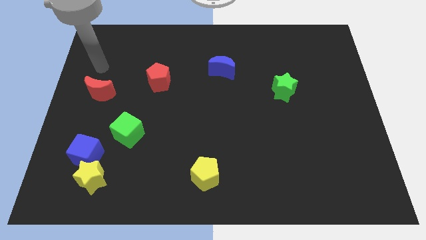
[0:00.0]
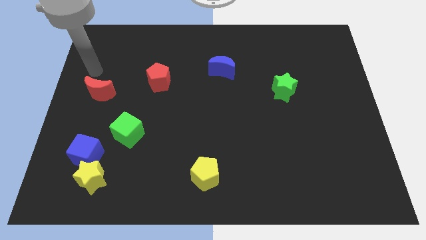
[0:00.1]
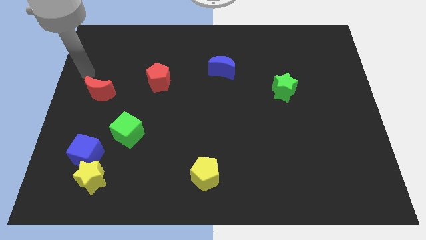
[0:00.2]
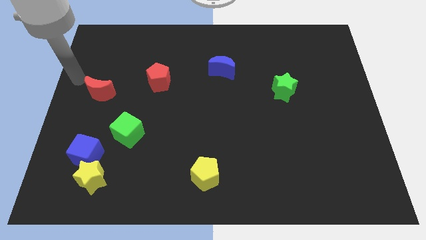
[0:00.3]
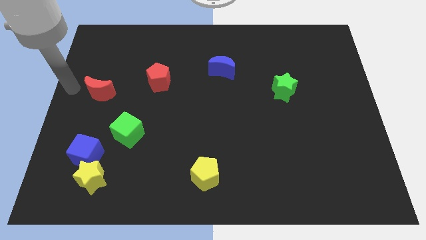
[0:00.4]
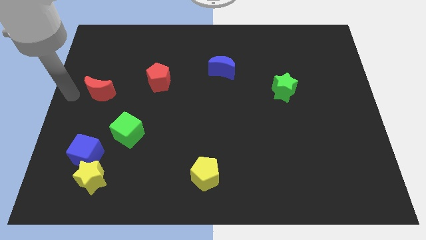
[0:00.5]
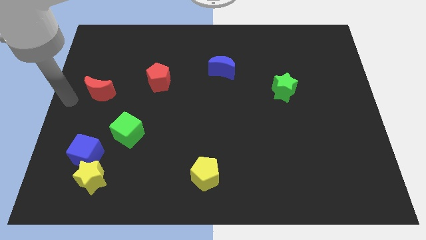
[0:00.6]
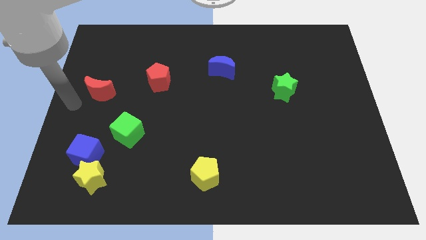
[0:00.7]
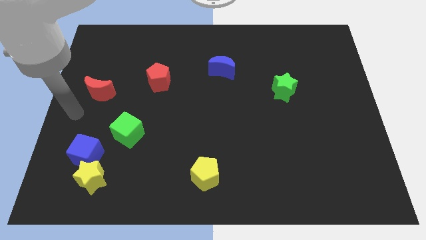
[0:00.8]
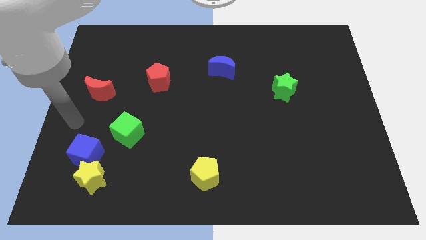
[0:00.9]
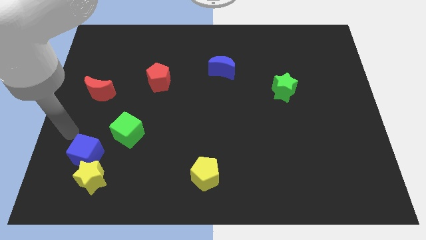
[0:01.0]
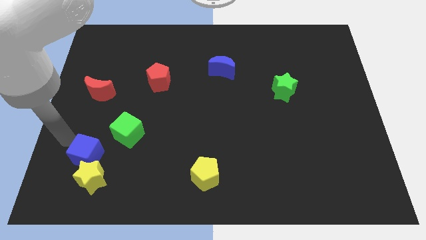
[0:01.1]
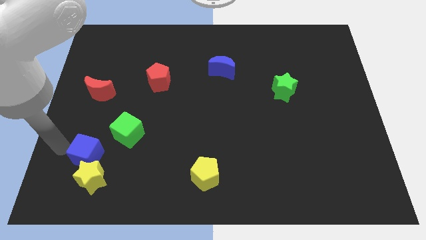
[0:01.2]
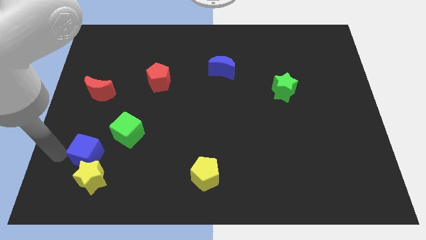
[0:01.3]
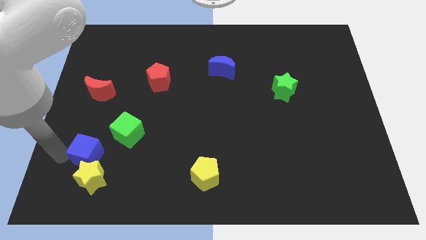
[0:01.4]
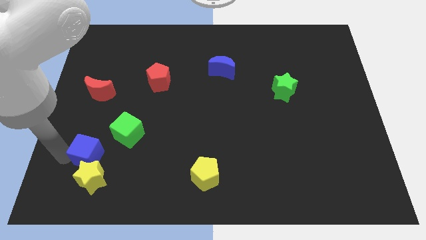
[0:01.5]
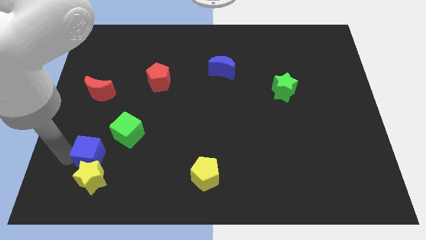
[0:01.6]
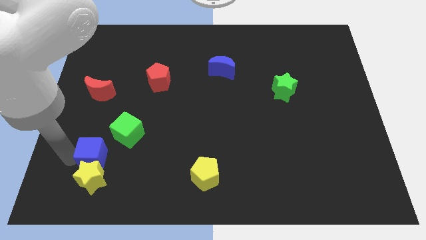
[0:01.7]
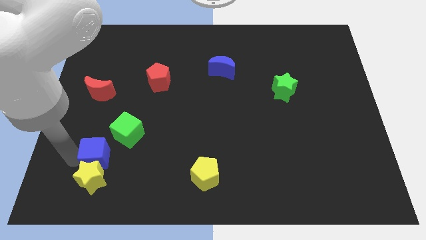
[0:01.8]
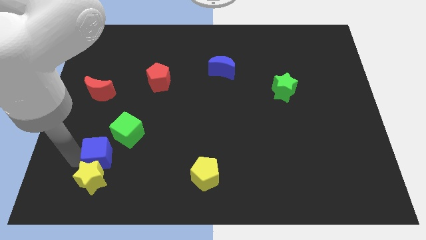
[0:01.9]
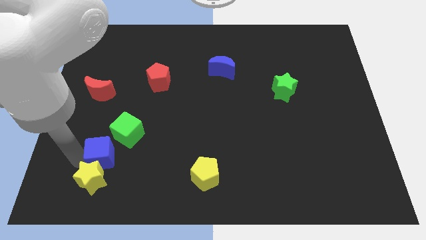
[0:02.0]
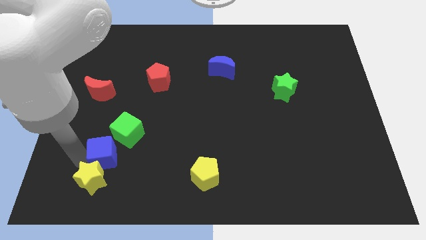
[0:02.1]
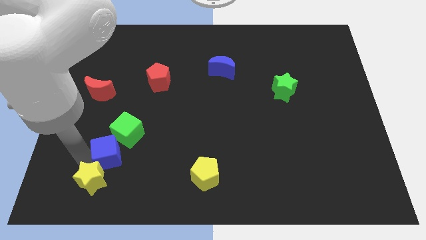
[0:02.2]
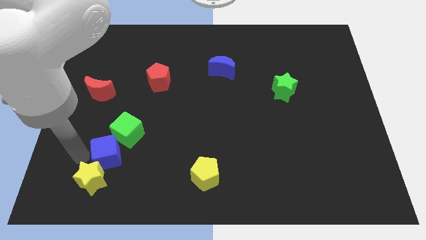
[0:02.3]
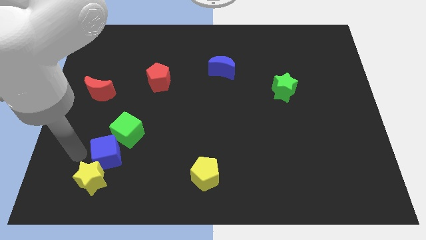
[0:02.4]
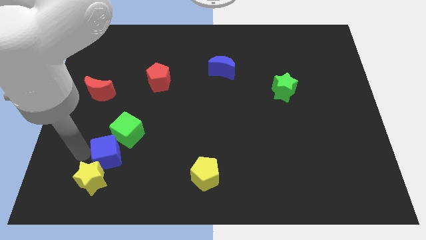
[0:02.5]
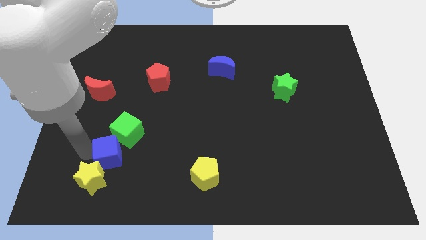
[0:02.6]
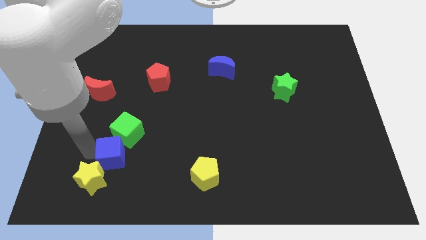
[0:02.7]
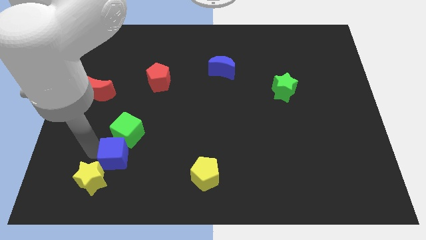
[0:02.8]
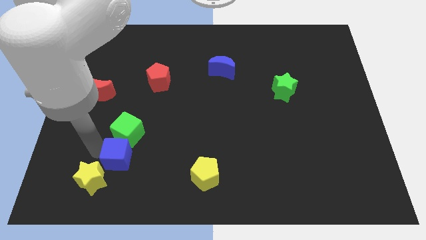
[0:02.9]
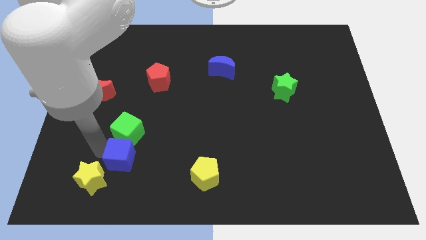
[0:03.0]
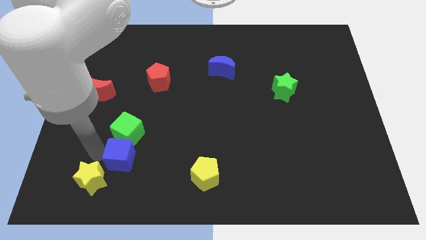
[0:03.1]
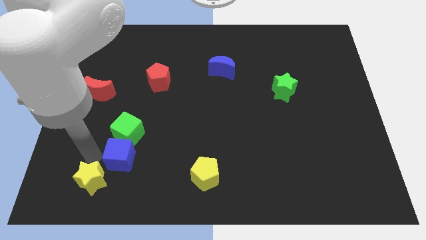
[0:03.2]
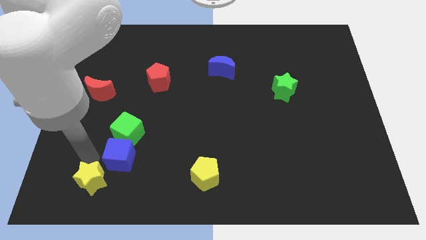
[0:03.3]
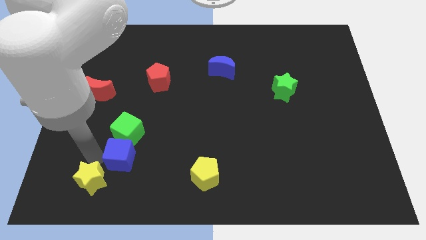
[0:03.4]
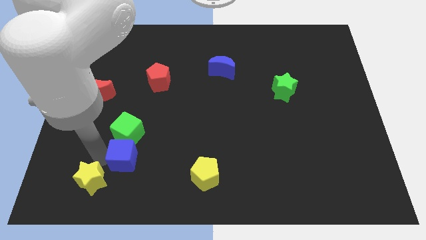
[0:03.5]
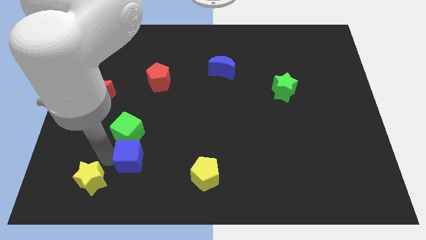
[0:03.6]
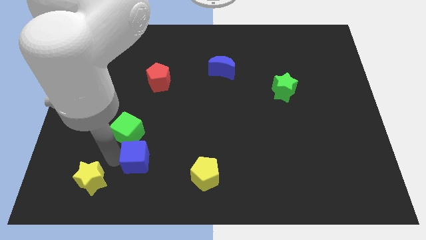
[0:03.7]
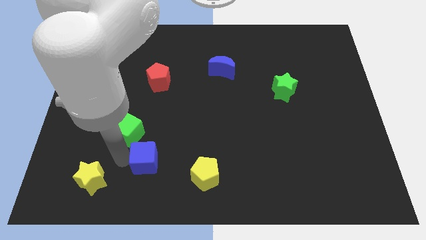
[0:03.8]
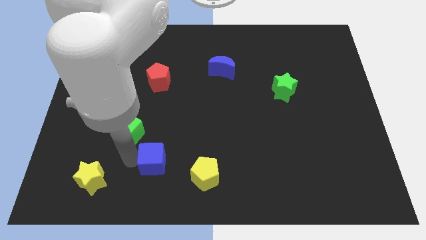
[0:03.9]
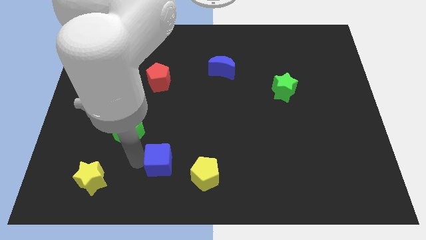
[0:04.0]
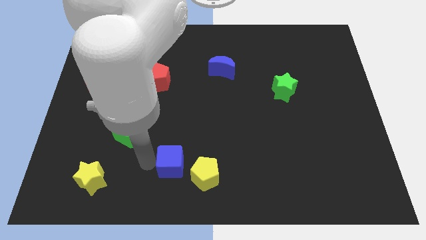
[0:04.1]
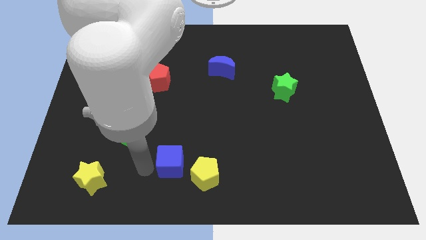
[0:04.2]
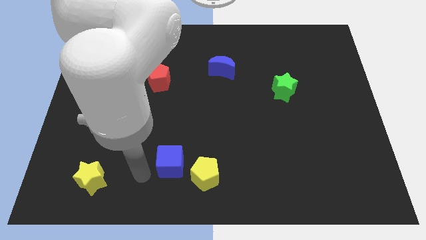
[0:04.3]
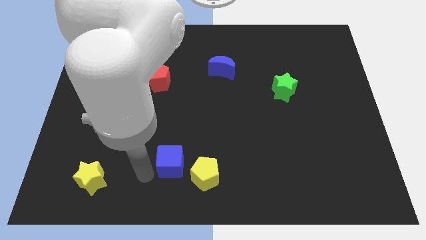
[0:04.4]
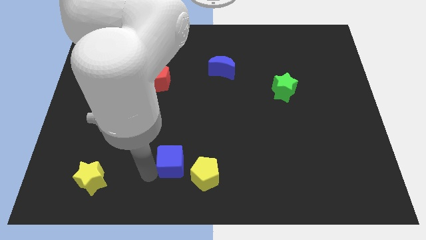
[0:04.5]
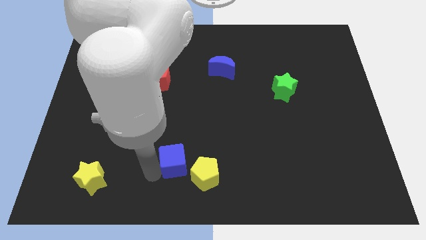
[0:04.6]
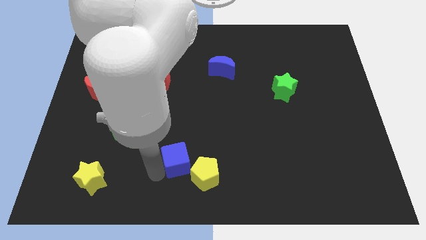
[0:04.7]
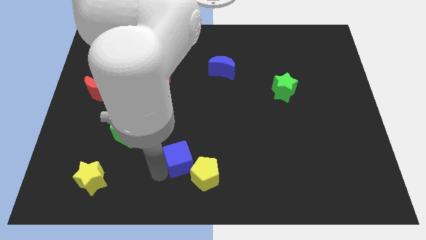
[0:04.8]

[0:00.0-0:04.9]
move the blue cube to the right

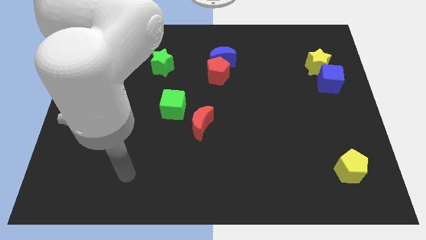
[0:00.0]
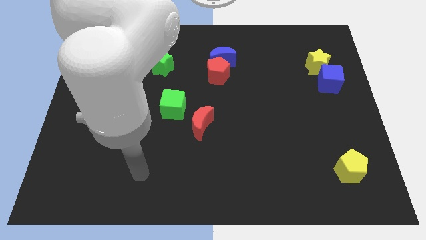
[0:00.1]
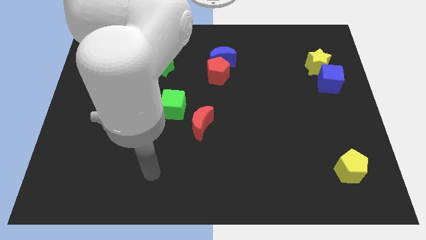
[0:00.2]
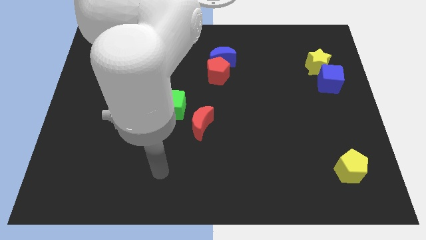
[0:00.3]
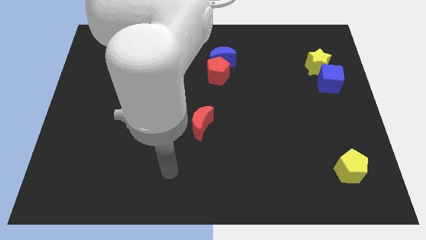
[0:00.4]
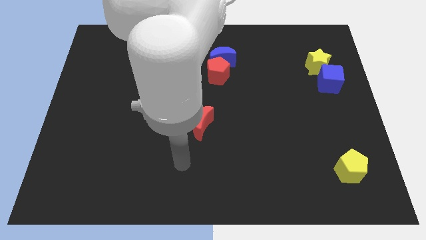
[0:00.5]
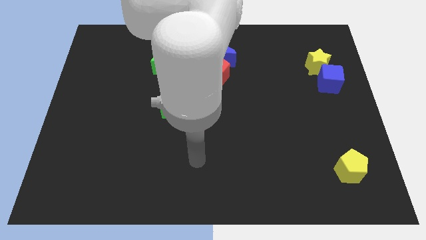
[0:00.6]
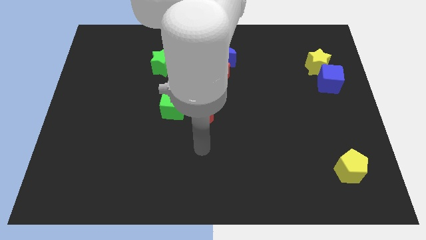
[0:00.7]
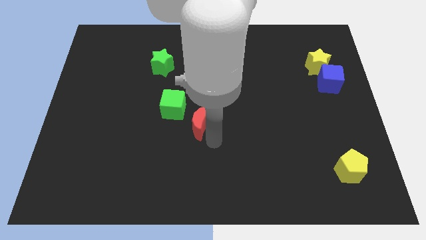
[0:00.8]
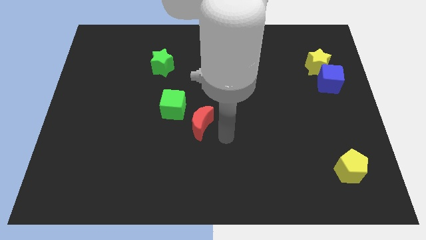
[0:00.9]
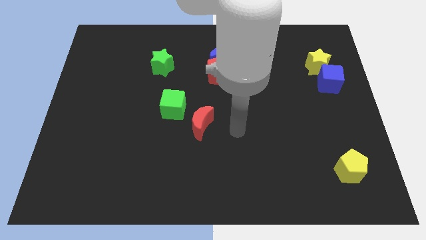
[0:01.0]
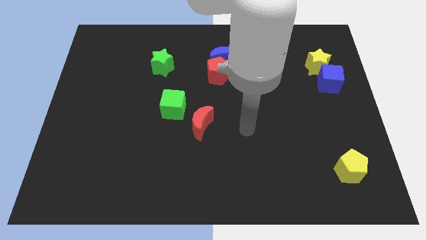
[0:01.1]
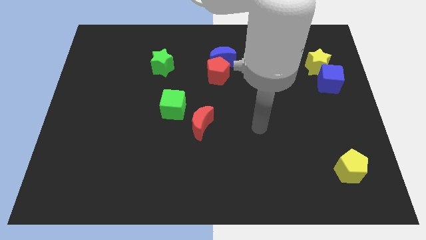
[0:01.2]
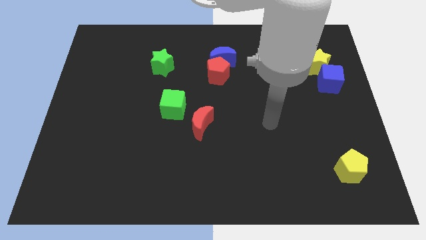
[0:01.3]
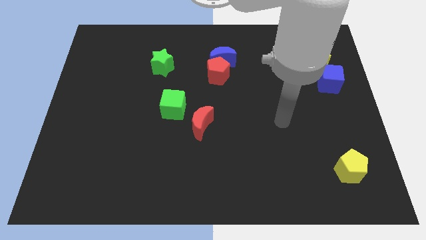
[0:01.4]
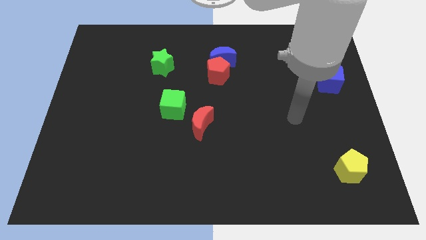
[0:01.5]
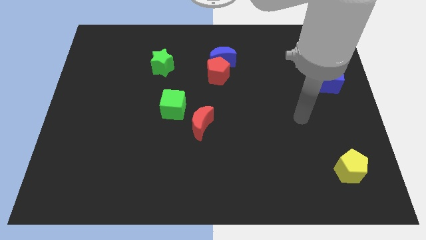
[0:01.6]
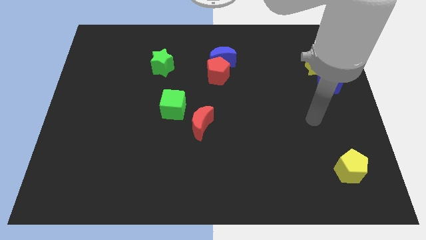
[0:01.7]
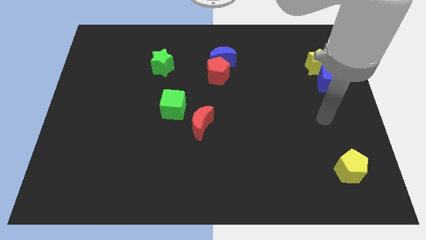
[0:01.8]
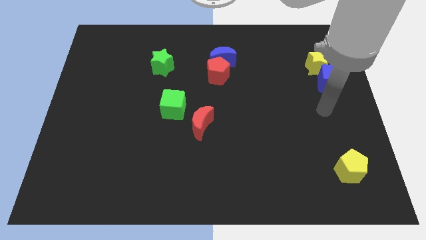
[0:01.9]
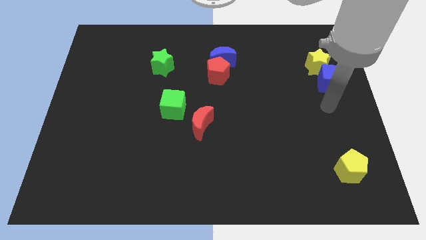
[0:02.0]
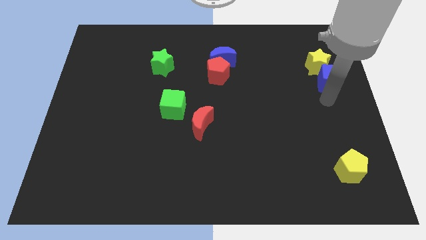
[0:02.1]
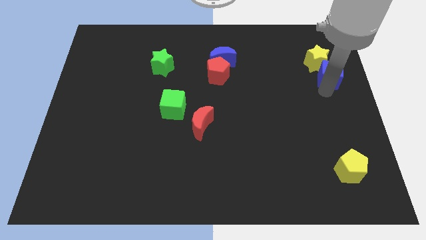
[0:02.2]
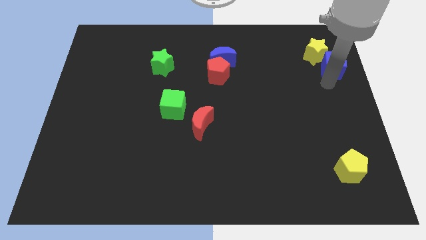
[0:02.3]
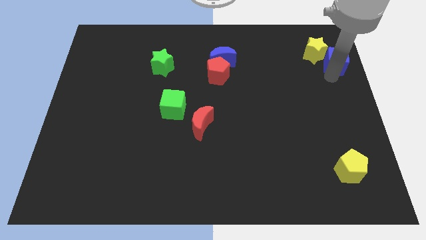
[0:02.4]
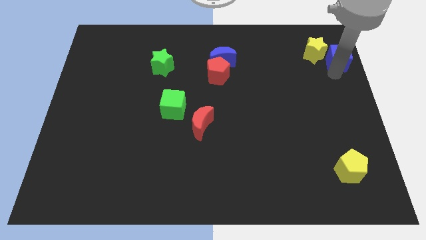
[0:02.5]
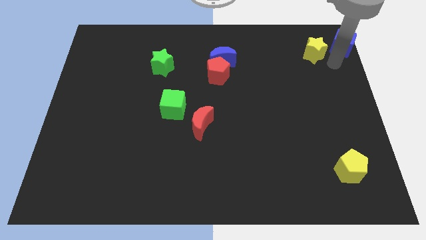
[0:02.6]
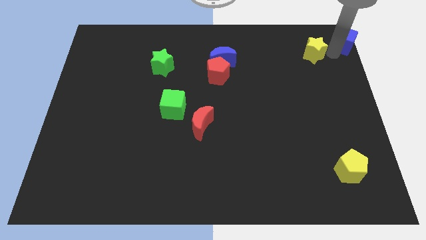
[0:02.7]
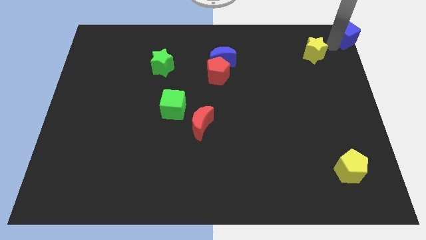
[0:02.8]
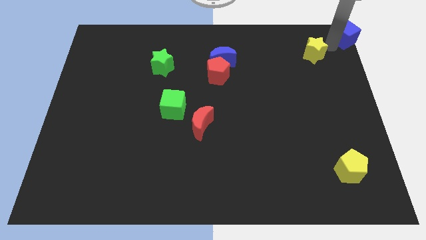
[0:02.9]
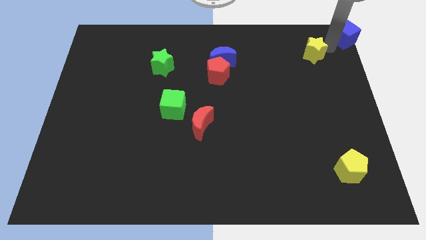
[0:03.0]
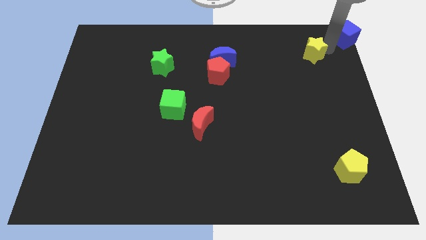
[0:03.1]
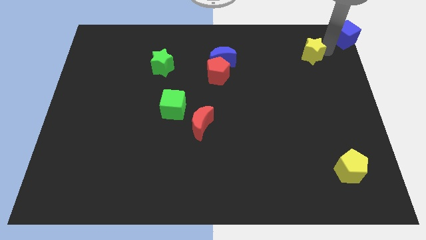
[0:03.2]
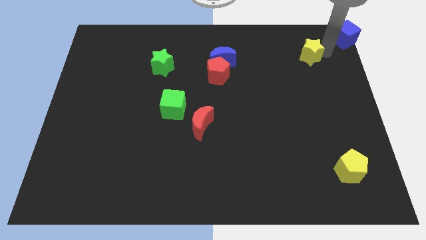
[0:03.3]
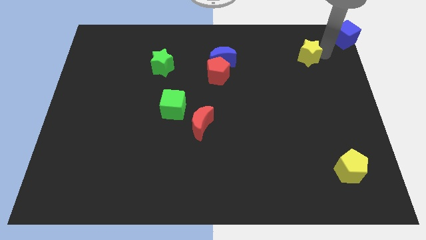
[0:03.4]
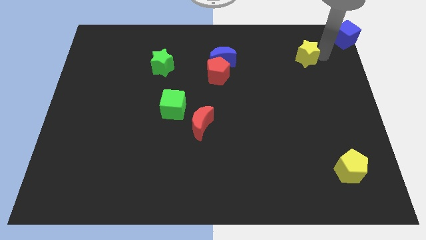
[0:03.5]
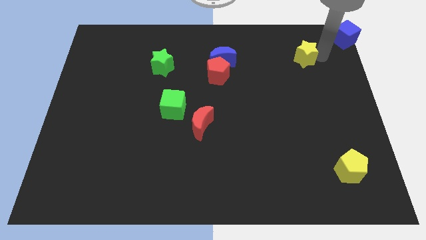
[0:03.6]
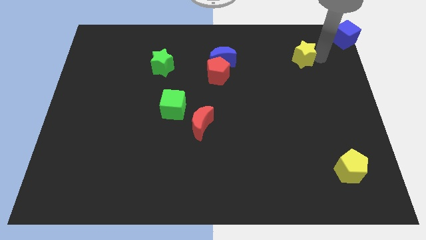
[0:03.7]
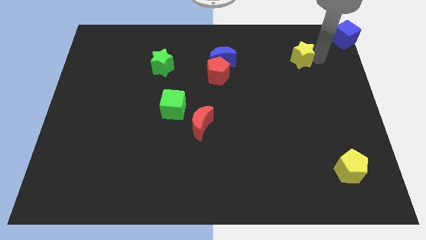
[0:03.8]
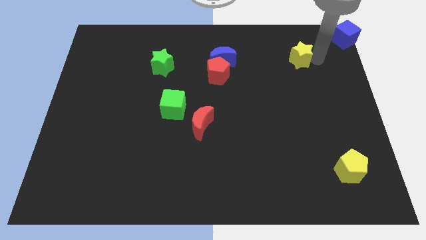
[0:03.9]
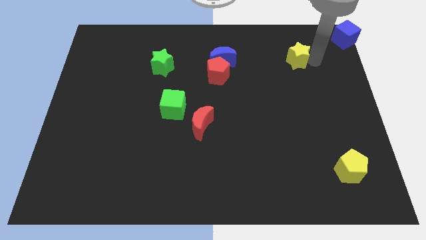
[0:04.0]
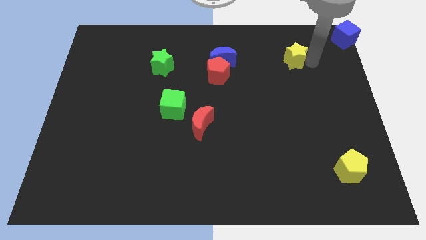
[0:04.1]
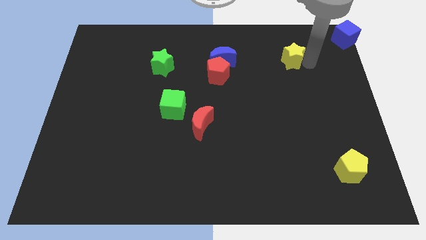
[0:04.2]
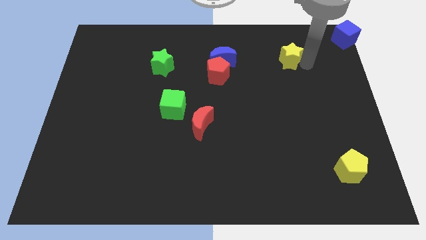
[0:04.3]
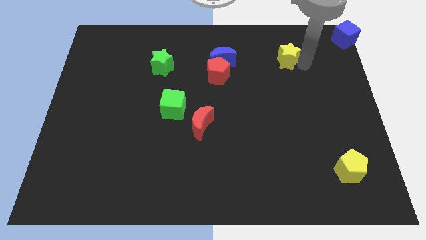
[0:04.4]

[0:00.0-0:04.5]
slide the yellow star to the left a little bit
